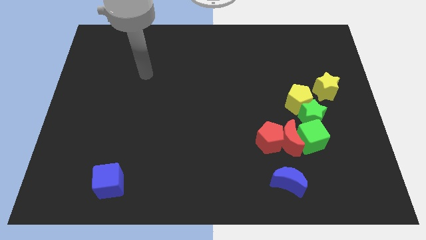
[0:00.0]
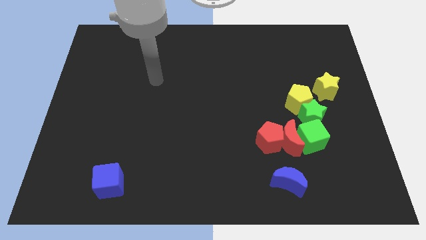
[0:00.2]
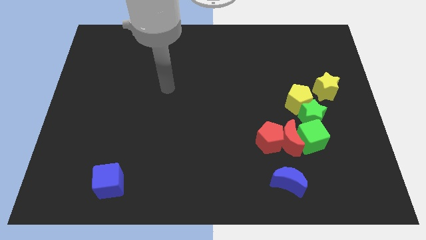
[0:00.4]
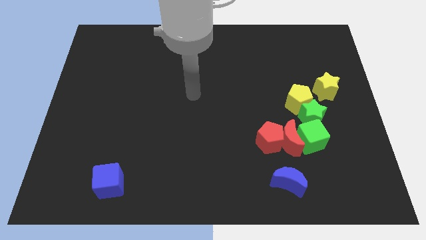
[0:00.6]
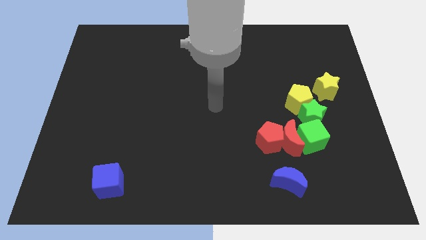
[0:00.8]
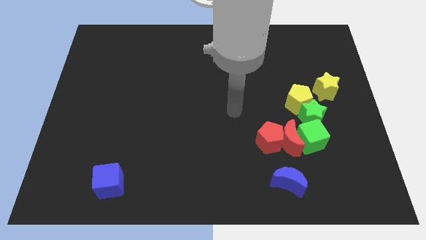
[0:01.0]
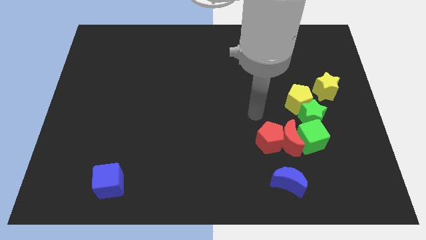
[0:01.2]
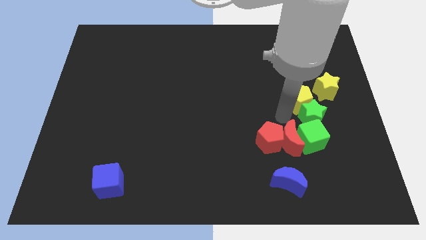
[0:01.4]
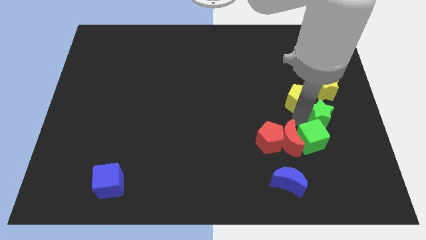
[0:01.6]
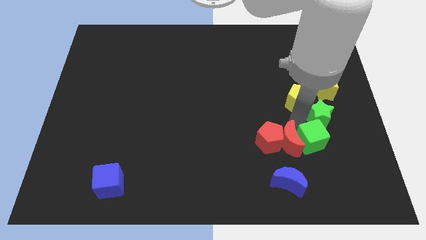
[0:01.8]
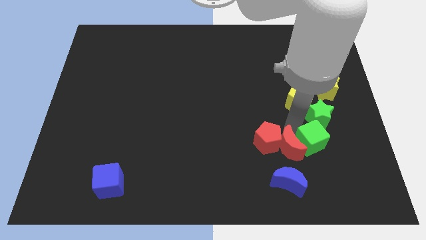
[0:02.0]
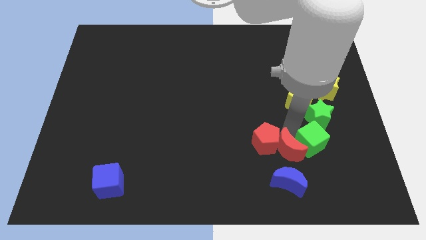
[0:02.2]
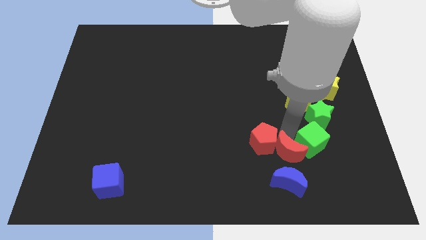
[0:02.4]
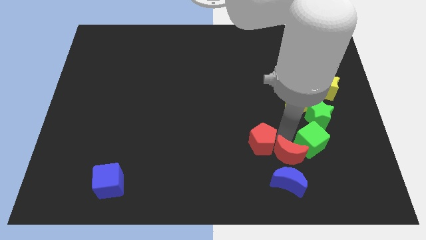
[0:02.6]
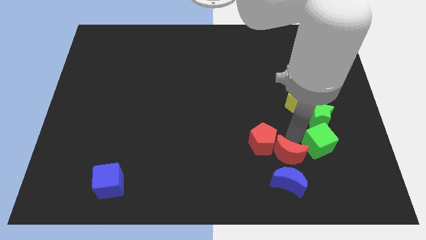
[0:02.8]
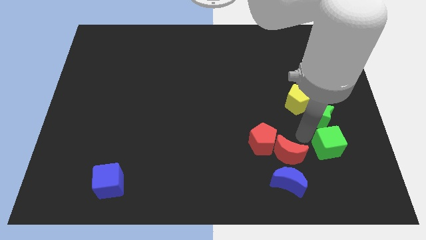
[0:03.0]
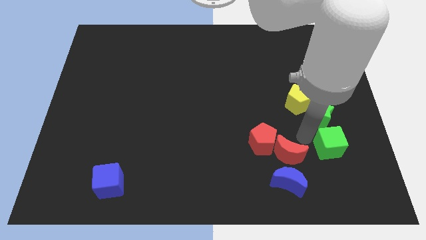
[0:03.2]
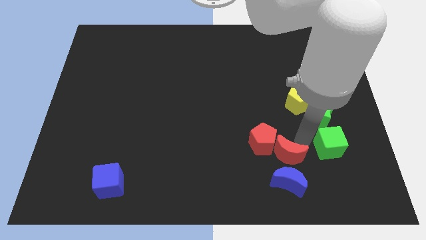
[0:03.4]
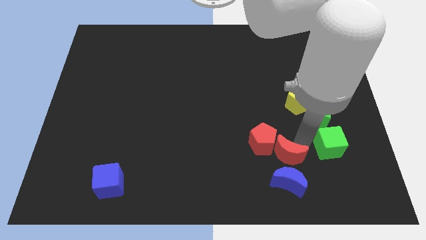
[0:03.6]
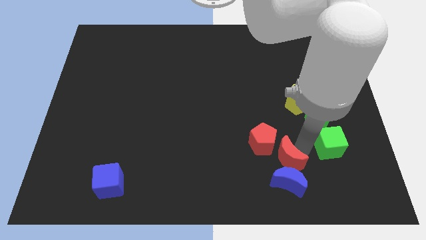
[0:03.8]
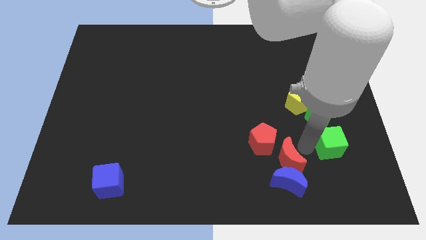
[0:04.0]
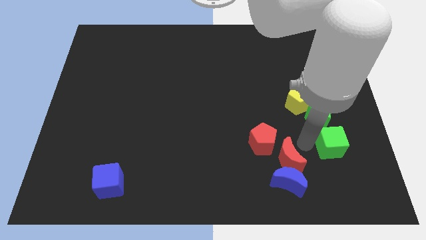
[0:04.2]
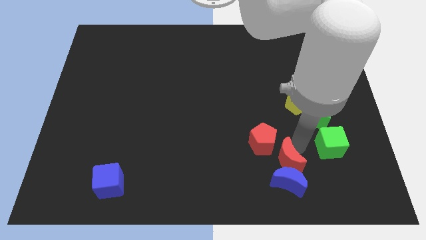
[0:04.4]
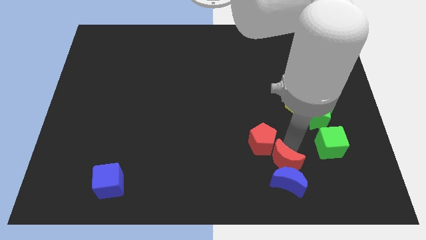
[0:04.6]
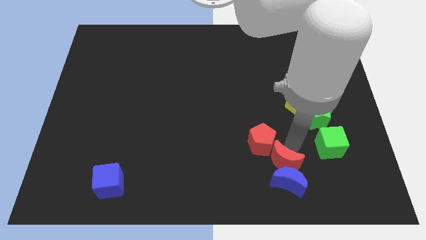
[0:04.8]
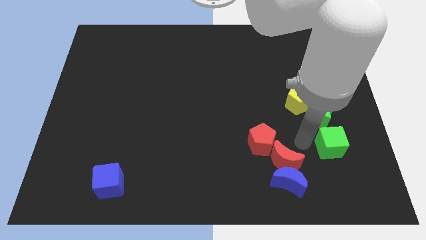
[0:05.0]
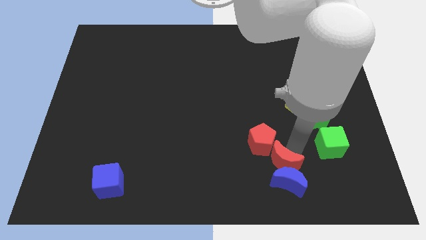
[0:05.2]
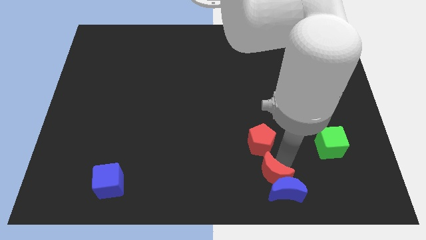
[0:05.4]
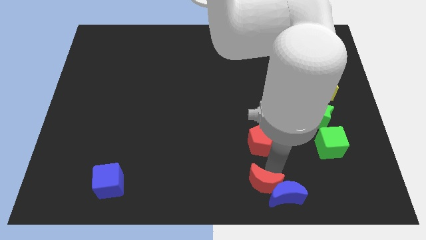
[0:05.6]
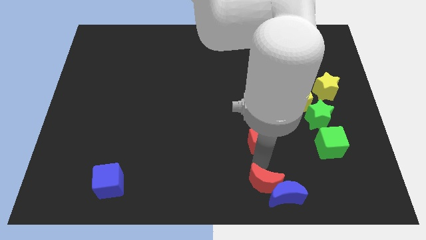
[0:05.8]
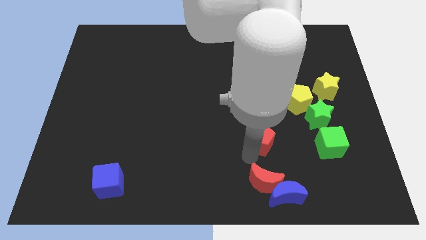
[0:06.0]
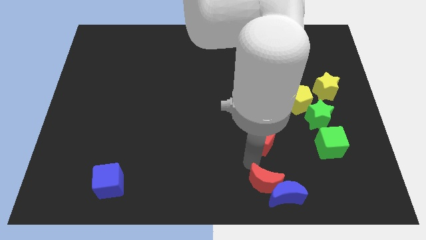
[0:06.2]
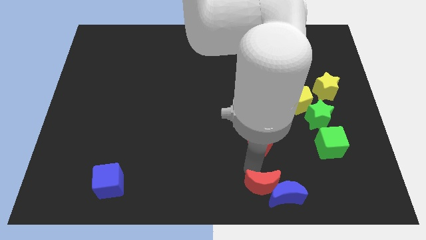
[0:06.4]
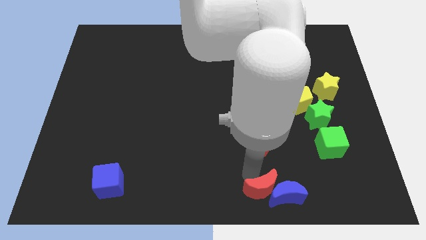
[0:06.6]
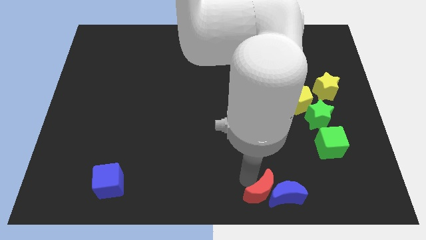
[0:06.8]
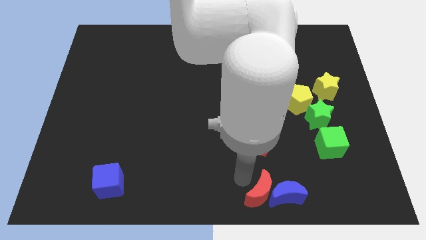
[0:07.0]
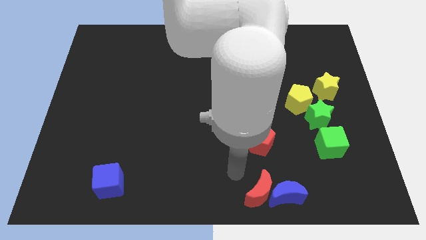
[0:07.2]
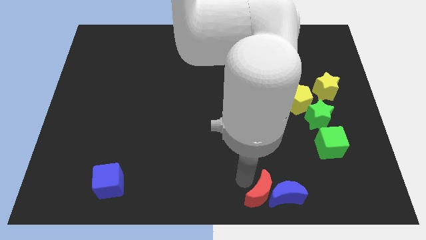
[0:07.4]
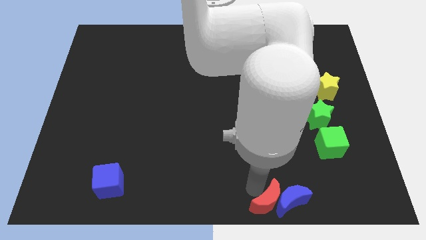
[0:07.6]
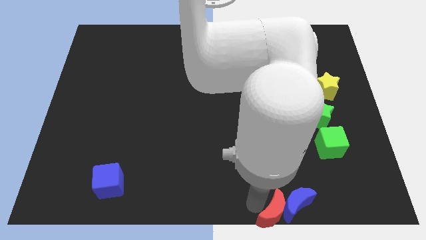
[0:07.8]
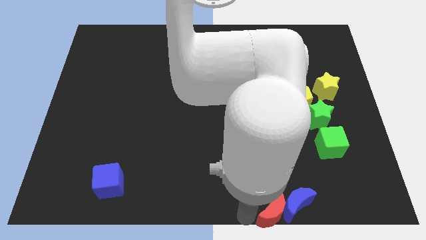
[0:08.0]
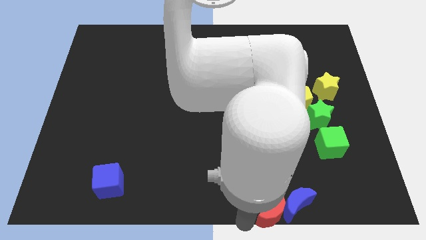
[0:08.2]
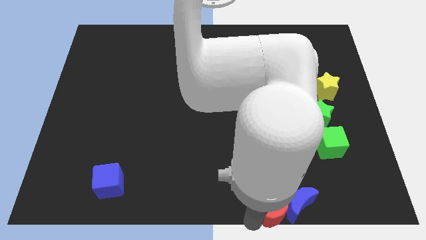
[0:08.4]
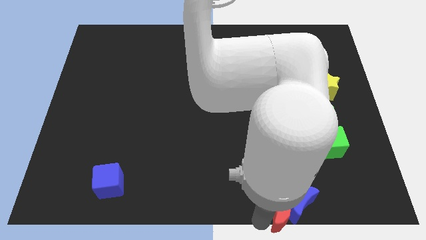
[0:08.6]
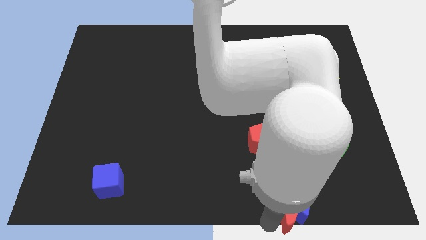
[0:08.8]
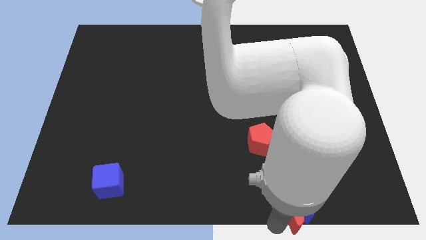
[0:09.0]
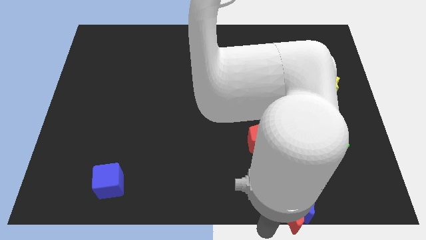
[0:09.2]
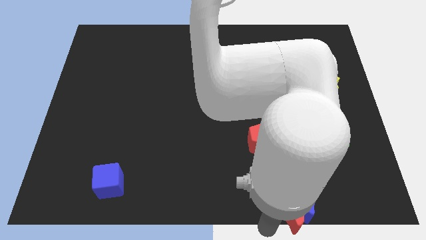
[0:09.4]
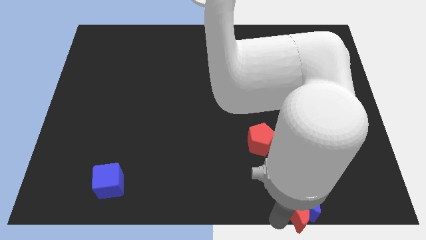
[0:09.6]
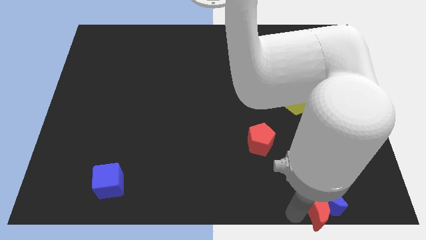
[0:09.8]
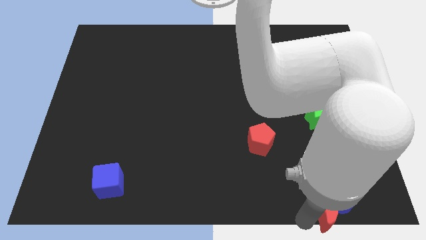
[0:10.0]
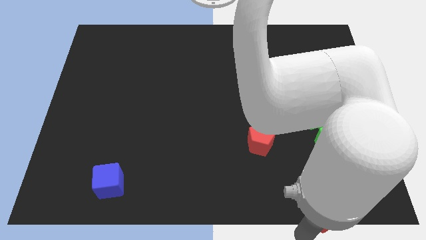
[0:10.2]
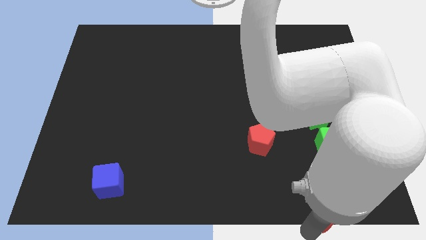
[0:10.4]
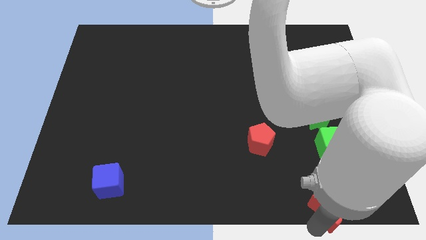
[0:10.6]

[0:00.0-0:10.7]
slide the red moon below the green cube

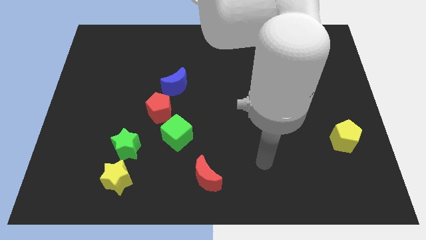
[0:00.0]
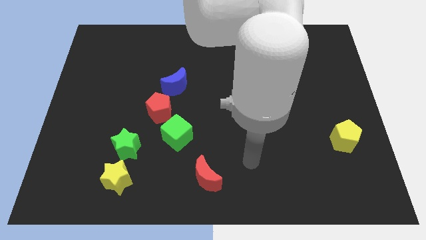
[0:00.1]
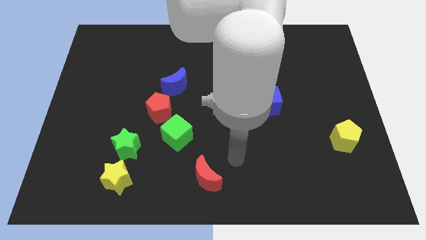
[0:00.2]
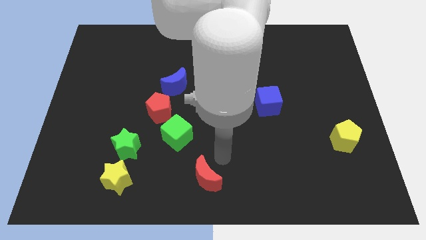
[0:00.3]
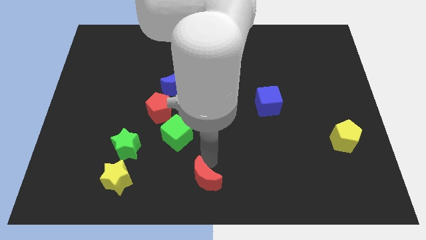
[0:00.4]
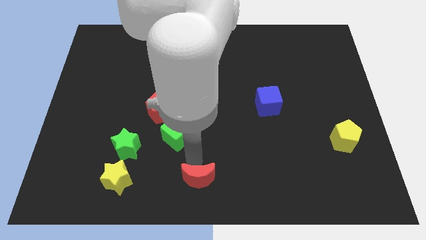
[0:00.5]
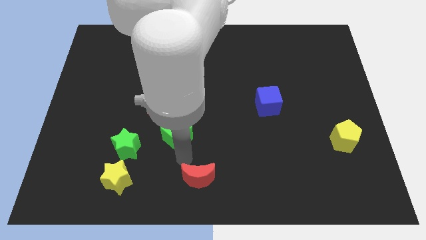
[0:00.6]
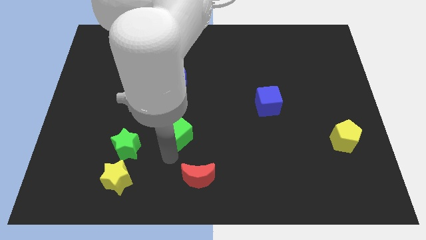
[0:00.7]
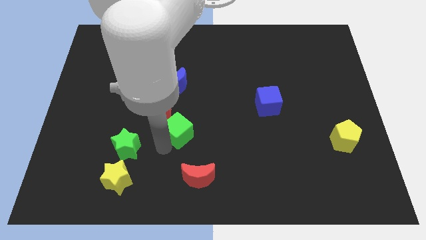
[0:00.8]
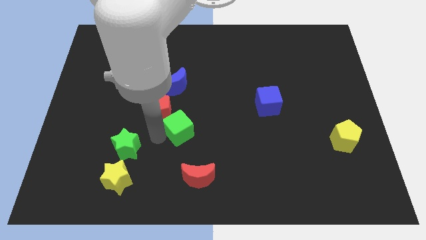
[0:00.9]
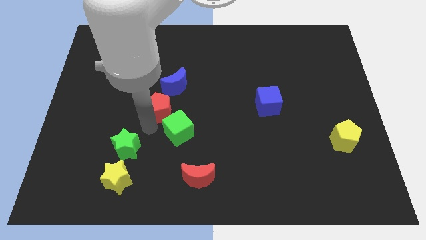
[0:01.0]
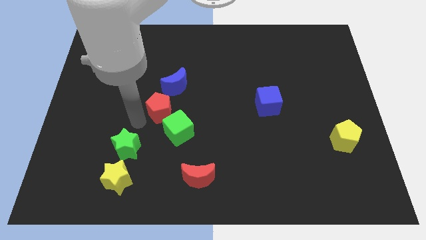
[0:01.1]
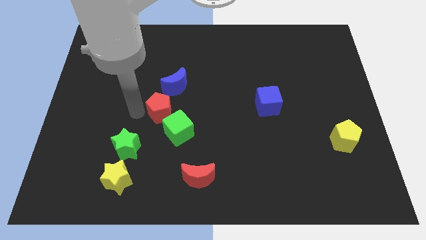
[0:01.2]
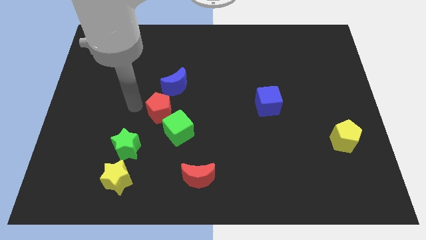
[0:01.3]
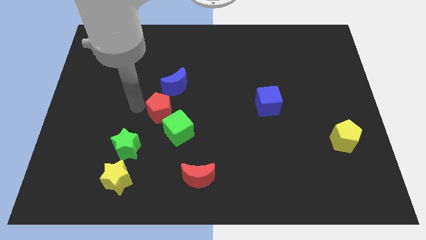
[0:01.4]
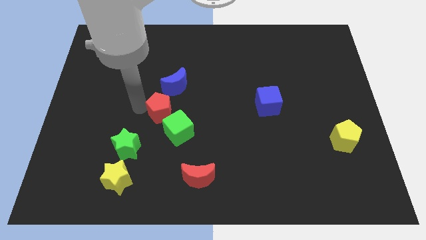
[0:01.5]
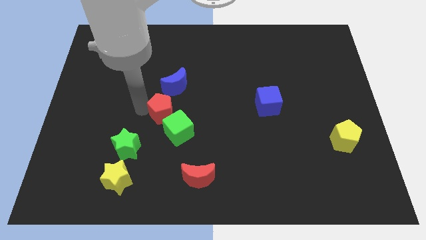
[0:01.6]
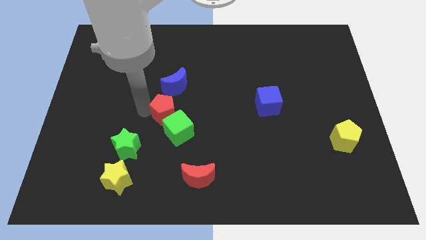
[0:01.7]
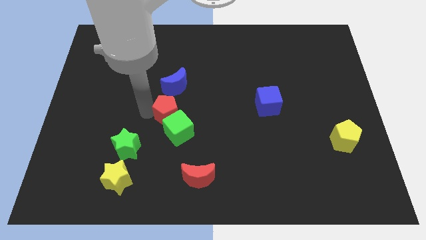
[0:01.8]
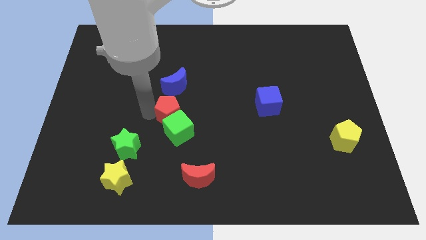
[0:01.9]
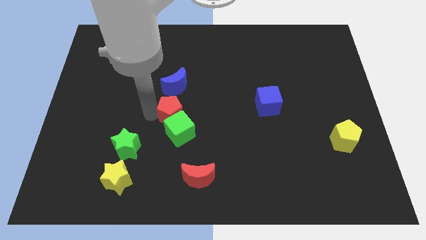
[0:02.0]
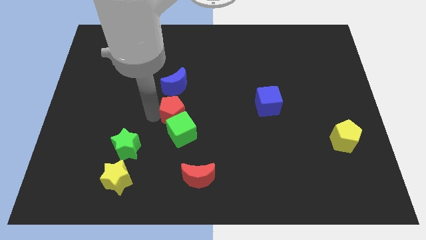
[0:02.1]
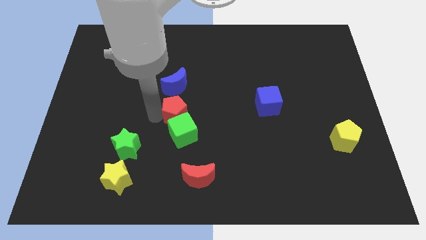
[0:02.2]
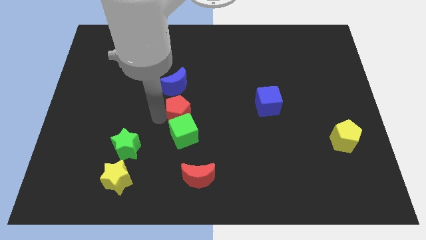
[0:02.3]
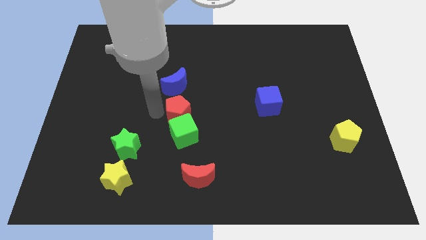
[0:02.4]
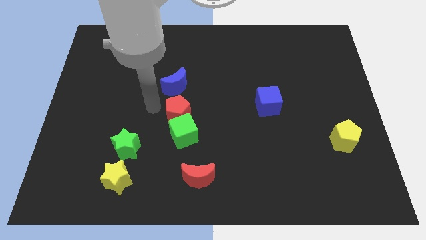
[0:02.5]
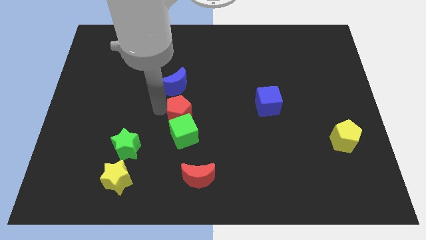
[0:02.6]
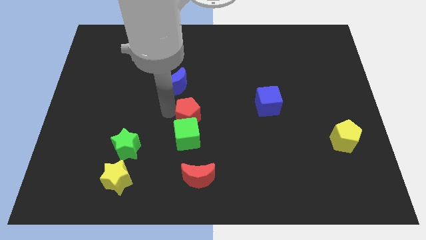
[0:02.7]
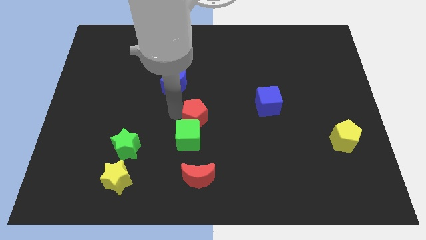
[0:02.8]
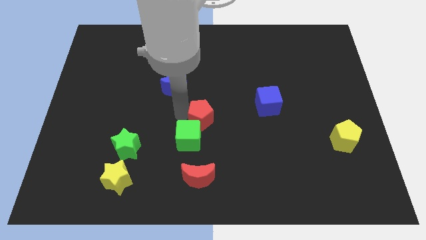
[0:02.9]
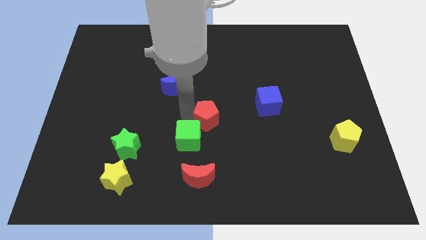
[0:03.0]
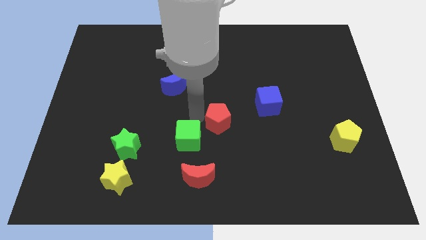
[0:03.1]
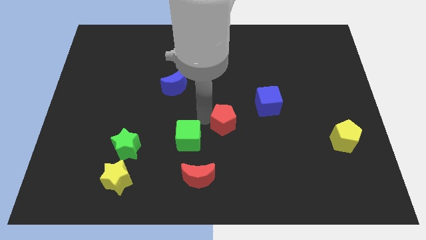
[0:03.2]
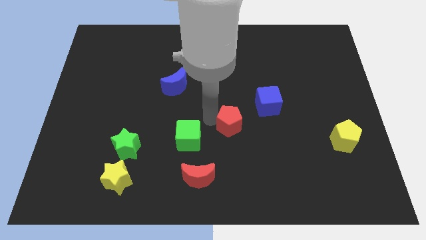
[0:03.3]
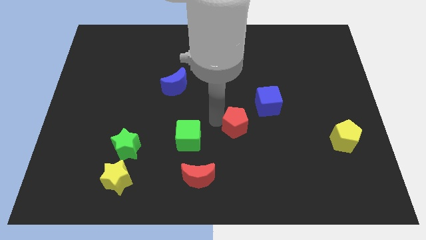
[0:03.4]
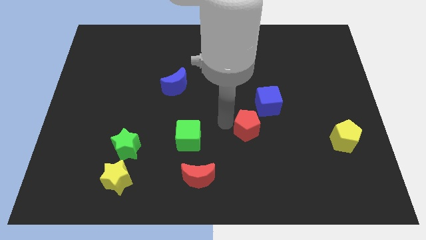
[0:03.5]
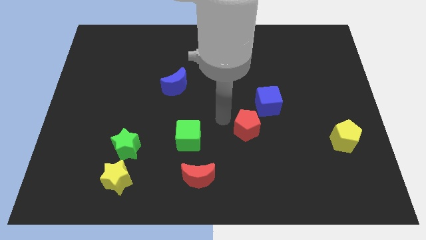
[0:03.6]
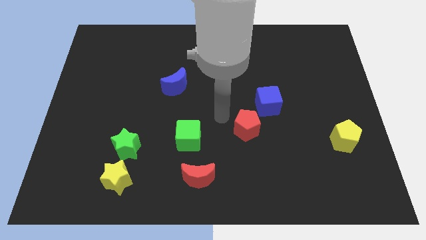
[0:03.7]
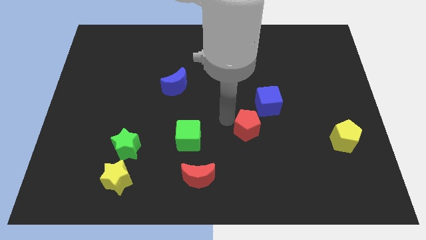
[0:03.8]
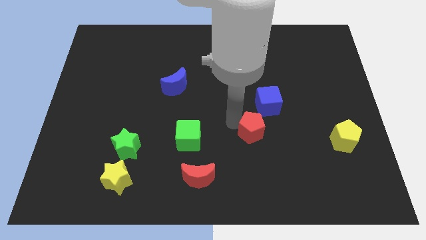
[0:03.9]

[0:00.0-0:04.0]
move the red pentagon below the blue cube
